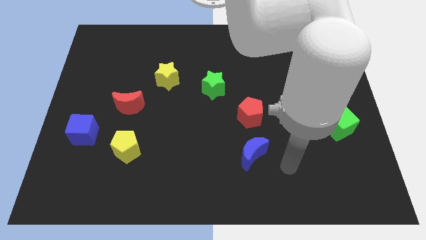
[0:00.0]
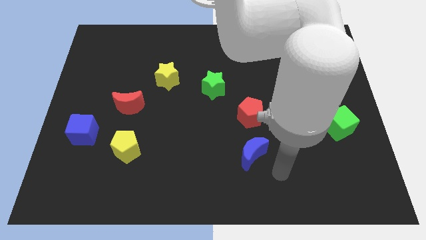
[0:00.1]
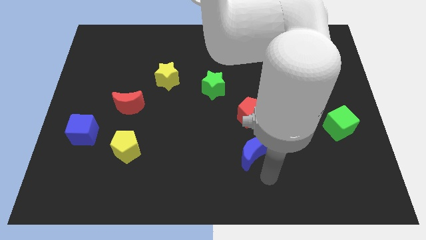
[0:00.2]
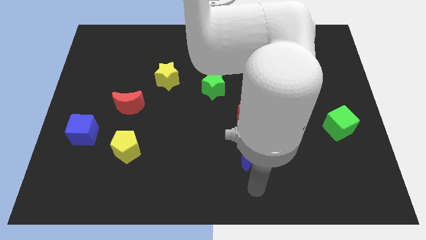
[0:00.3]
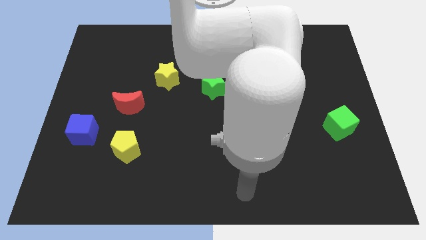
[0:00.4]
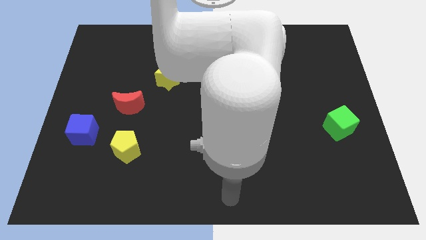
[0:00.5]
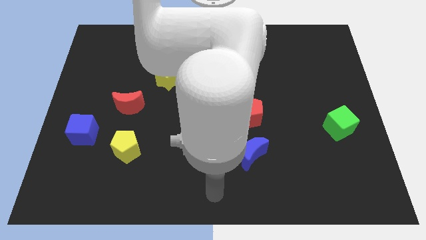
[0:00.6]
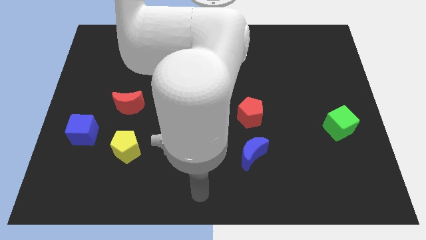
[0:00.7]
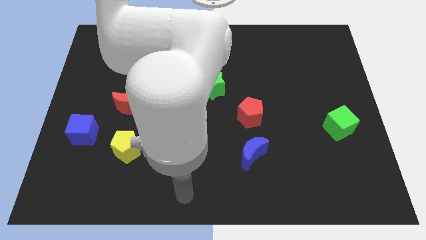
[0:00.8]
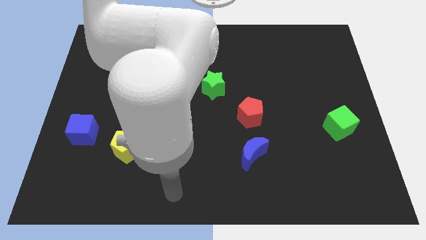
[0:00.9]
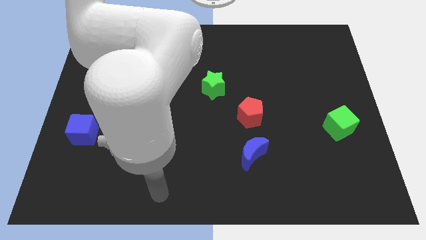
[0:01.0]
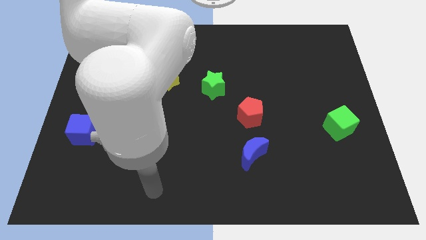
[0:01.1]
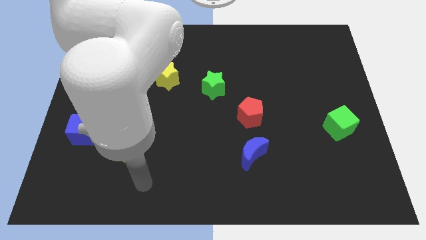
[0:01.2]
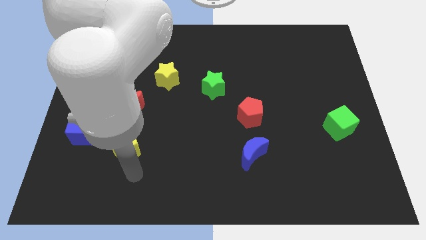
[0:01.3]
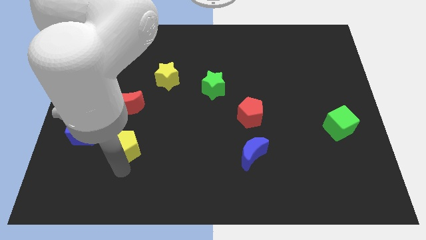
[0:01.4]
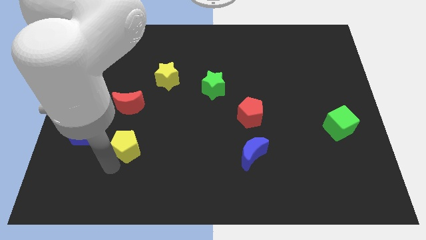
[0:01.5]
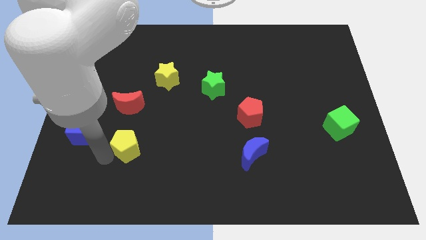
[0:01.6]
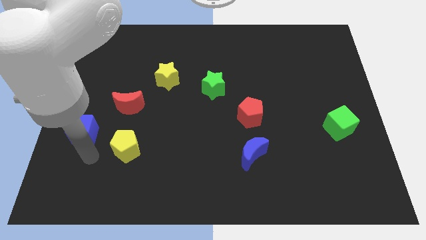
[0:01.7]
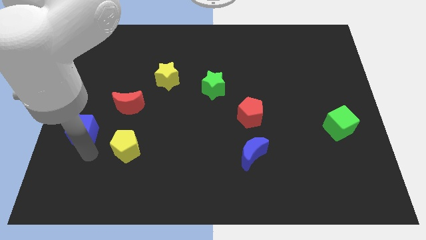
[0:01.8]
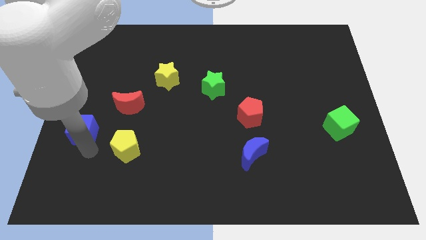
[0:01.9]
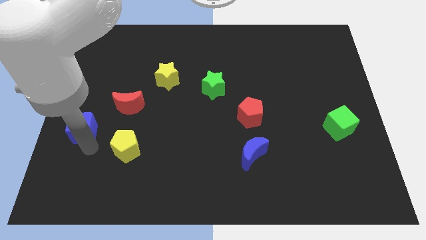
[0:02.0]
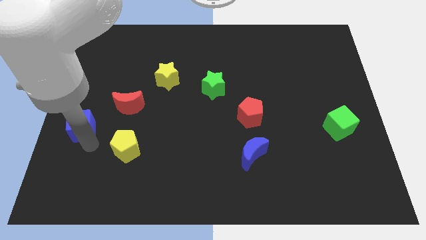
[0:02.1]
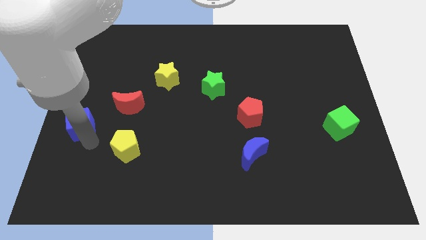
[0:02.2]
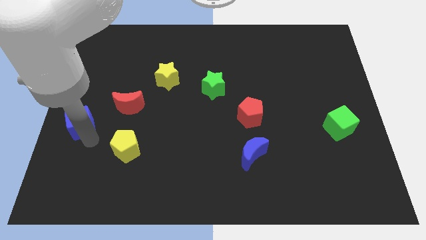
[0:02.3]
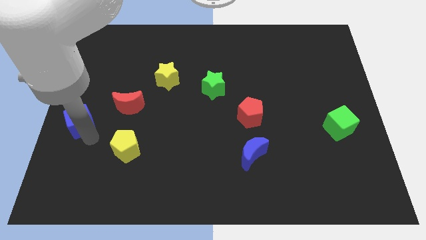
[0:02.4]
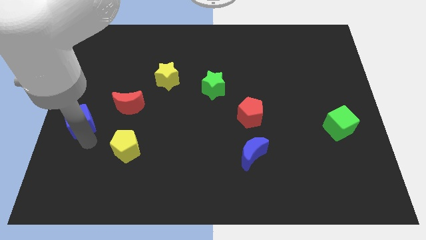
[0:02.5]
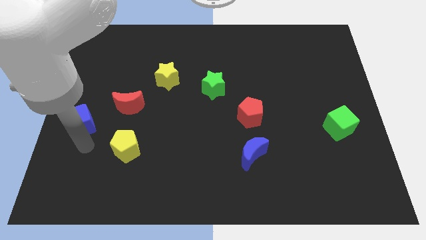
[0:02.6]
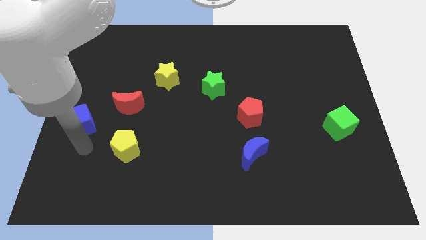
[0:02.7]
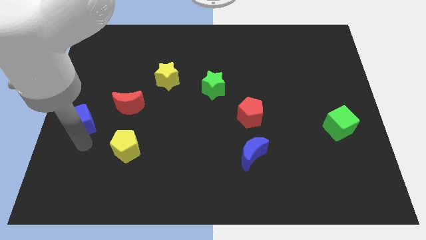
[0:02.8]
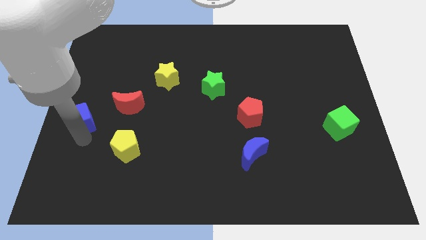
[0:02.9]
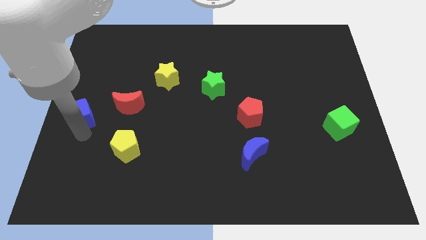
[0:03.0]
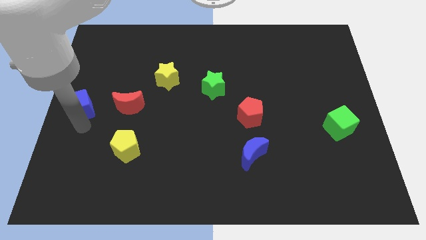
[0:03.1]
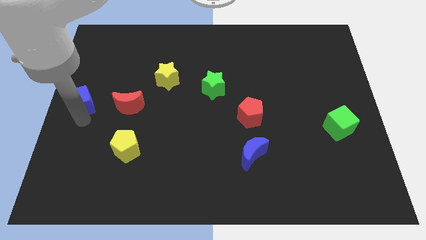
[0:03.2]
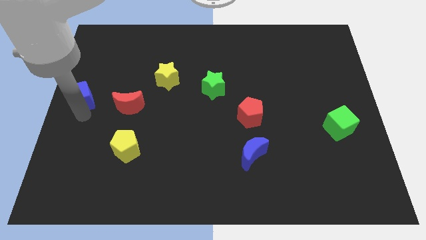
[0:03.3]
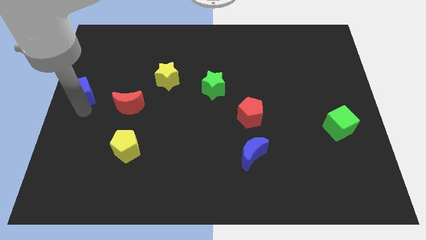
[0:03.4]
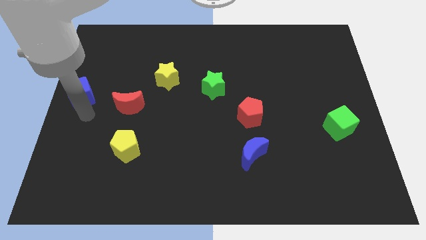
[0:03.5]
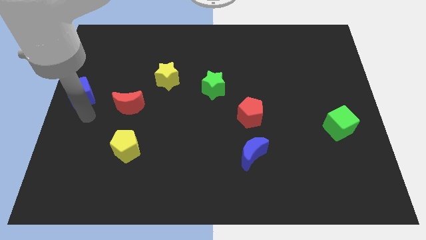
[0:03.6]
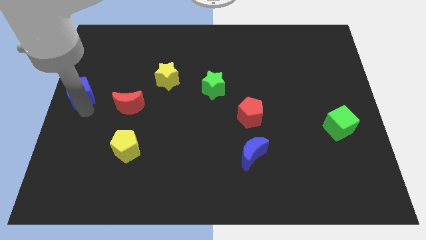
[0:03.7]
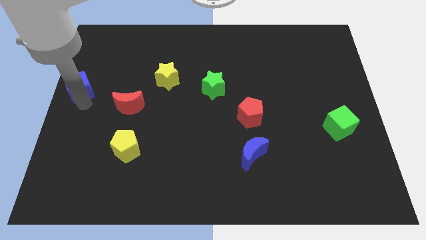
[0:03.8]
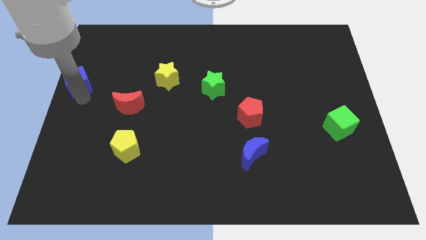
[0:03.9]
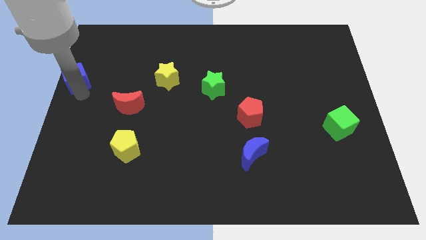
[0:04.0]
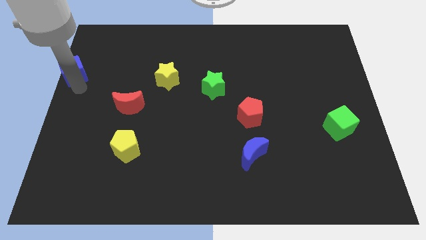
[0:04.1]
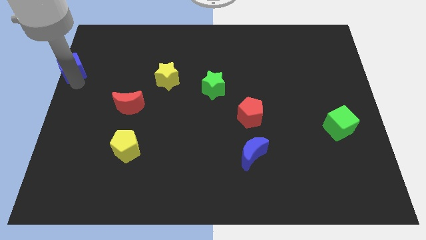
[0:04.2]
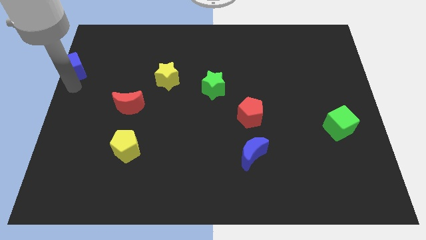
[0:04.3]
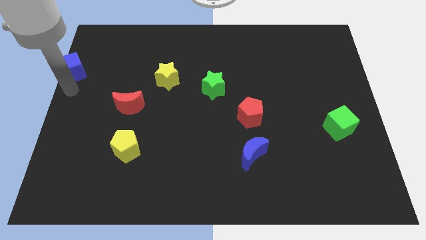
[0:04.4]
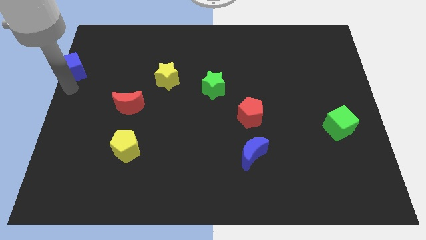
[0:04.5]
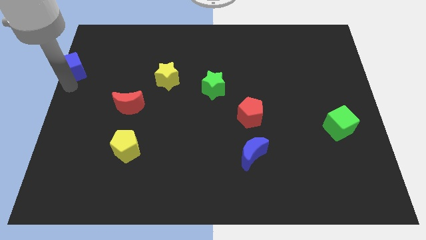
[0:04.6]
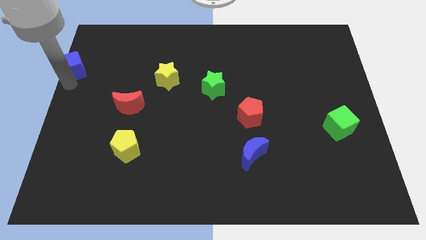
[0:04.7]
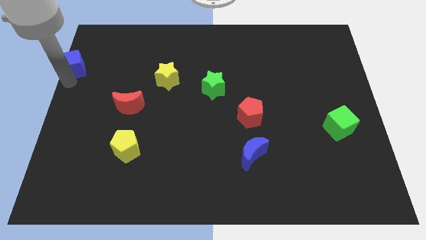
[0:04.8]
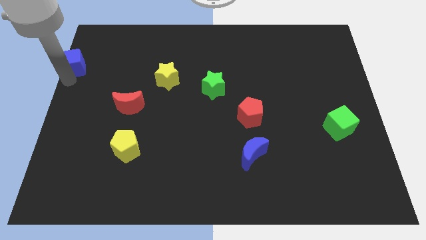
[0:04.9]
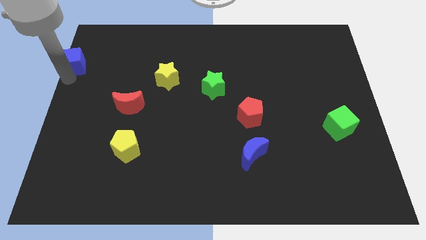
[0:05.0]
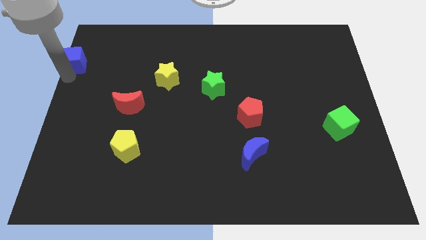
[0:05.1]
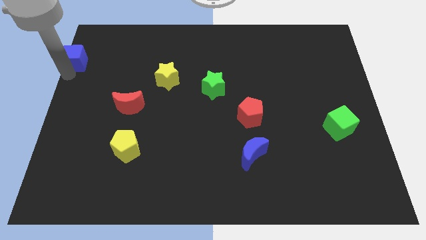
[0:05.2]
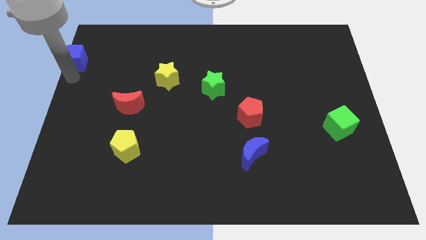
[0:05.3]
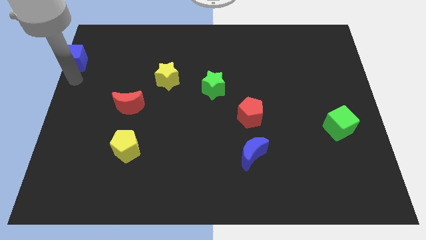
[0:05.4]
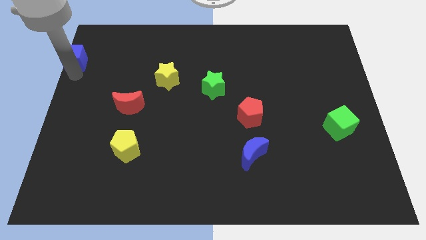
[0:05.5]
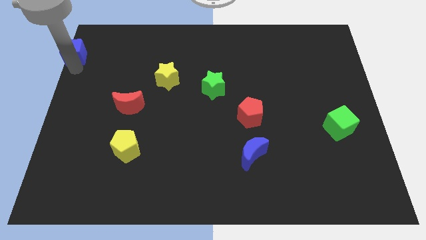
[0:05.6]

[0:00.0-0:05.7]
slide the blue cube to the top left corner
